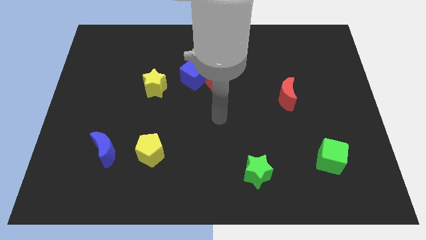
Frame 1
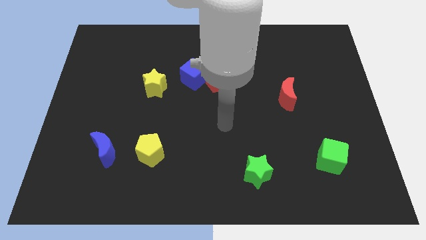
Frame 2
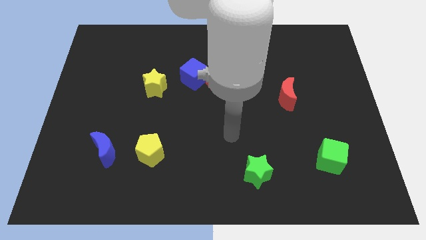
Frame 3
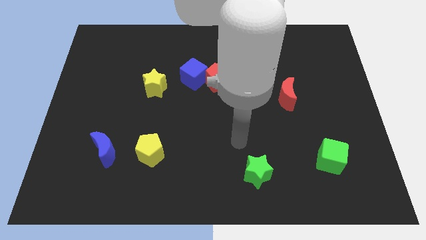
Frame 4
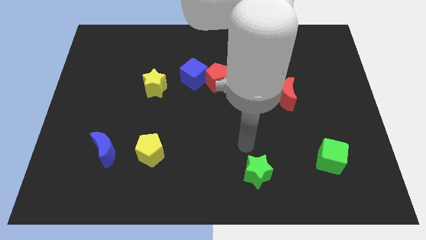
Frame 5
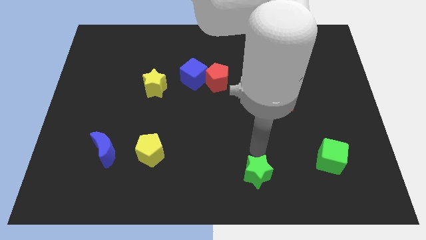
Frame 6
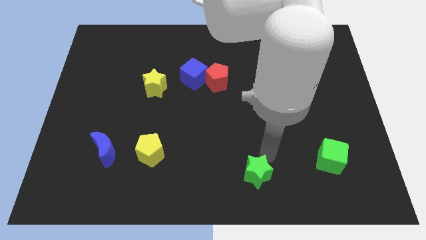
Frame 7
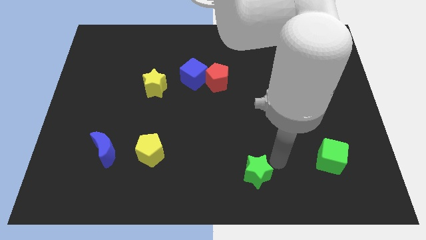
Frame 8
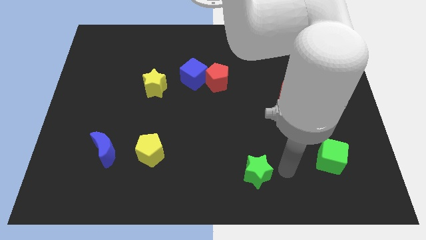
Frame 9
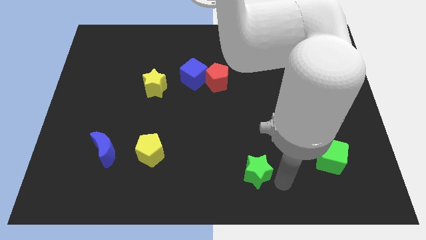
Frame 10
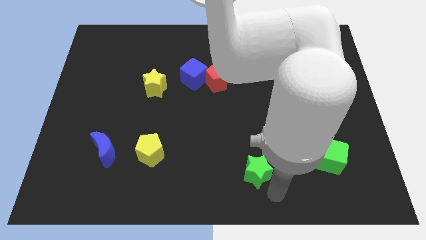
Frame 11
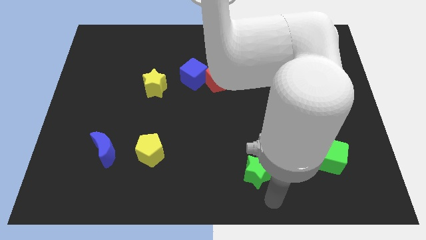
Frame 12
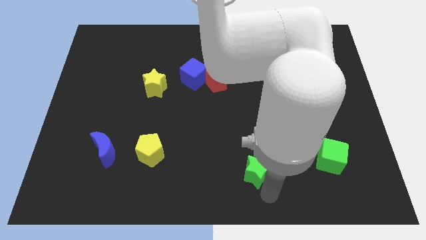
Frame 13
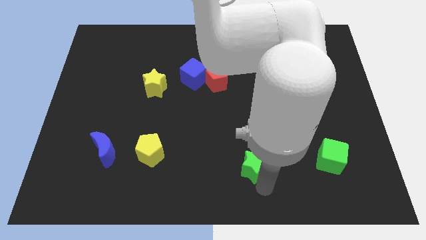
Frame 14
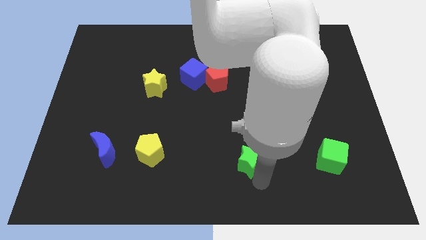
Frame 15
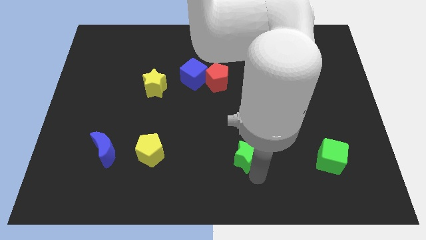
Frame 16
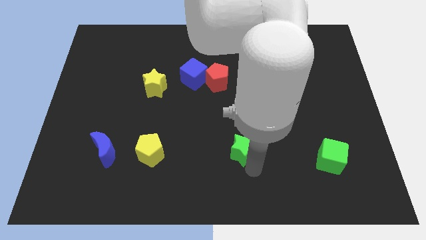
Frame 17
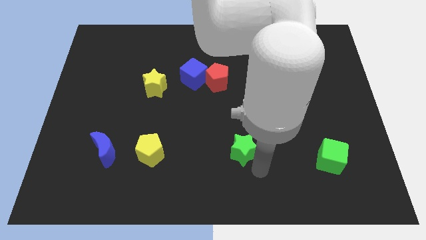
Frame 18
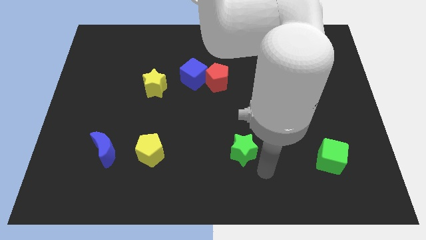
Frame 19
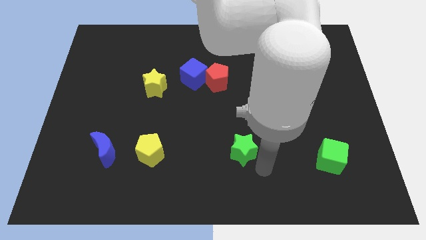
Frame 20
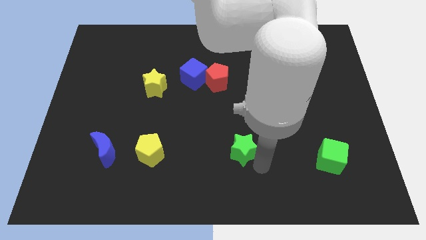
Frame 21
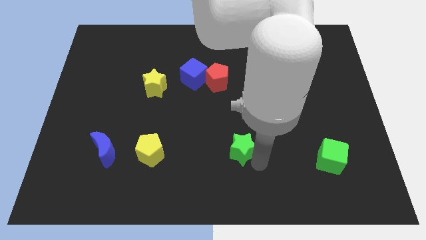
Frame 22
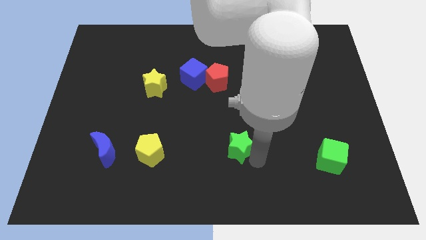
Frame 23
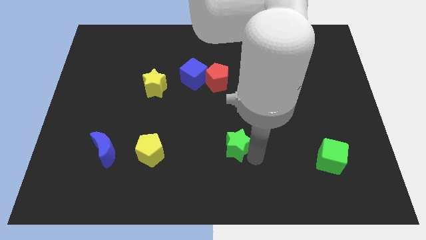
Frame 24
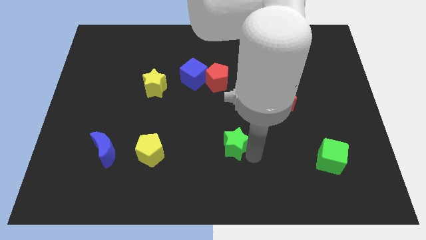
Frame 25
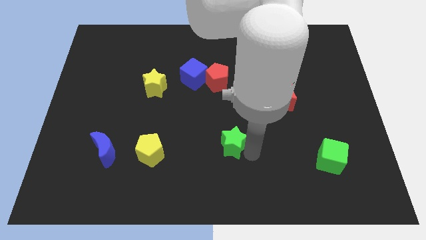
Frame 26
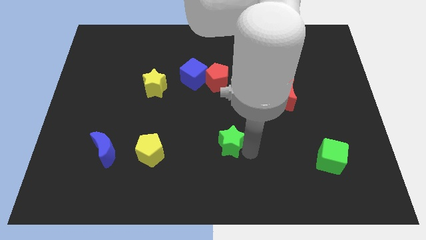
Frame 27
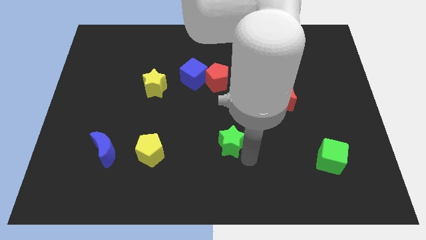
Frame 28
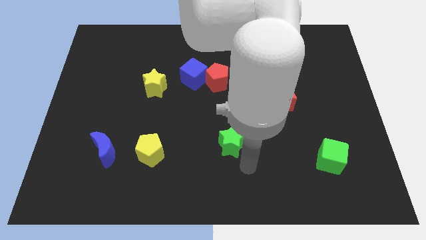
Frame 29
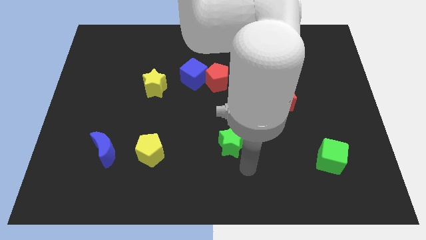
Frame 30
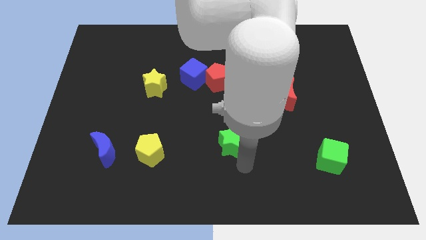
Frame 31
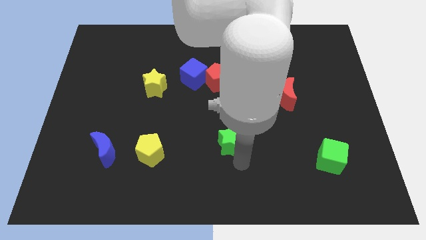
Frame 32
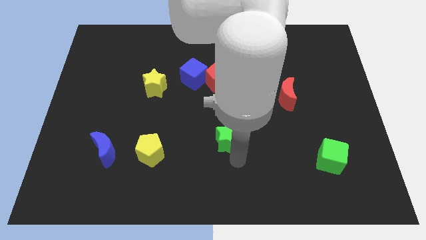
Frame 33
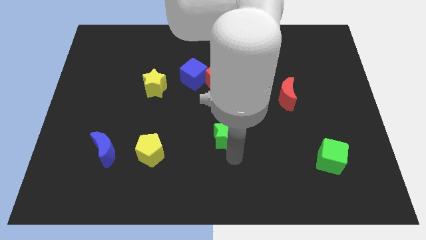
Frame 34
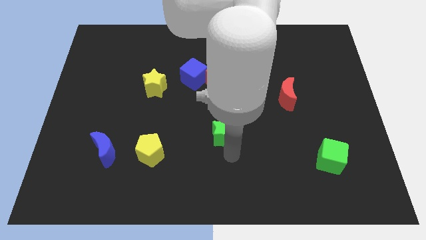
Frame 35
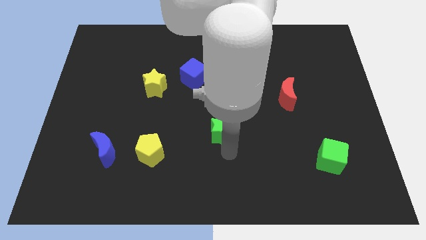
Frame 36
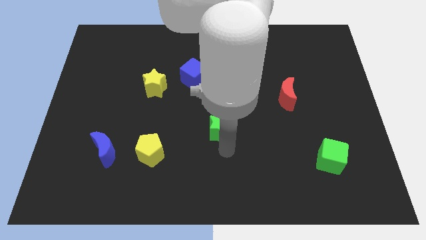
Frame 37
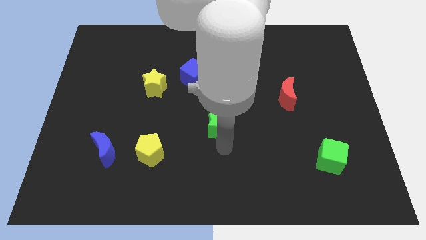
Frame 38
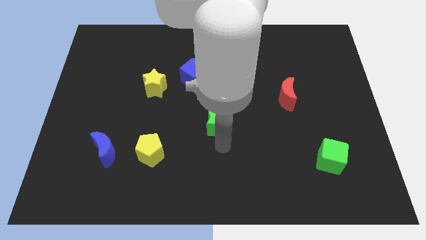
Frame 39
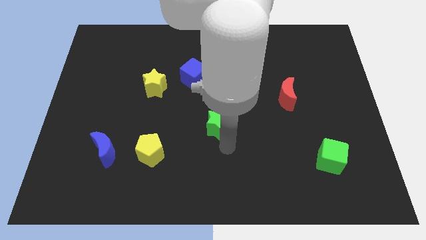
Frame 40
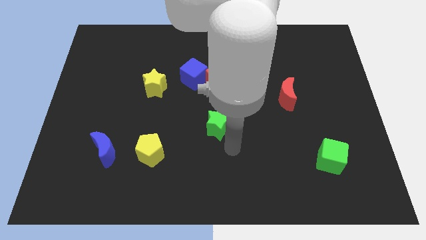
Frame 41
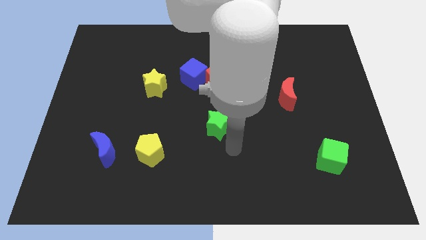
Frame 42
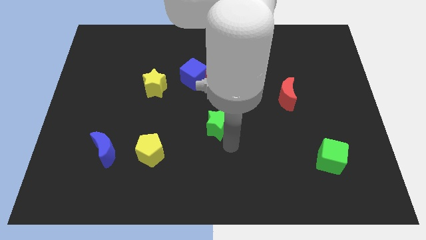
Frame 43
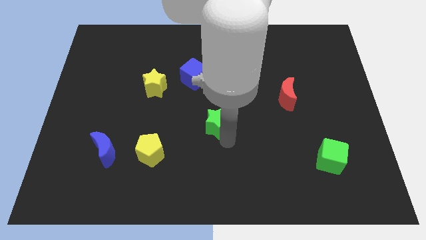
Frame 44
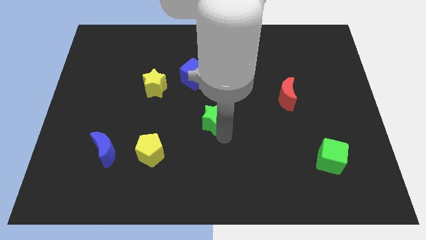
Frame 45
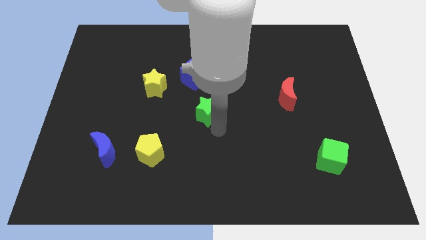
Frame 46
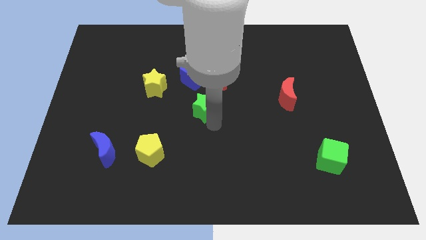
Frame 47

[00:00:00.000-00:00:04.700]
push the green star diagonally down and to the left of the red pentagon
